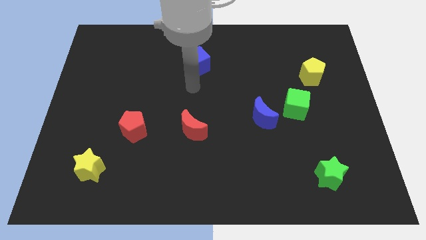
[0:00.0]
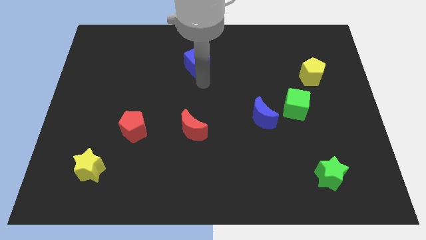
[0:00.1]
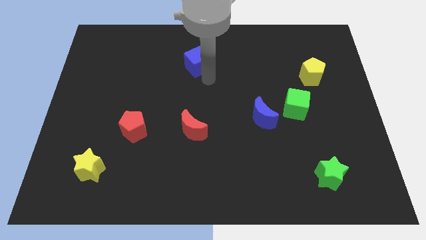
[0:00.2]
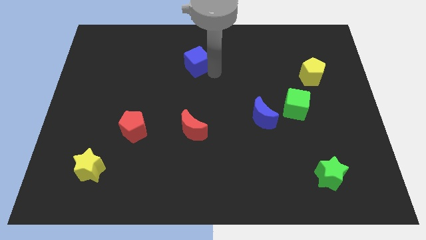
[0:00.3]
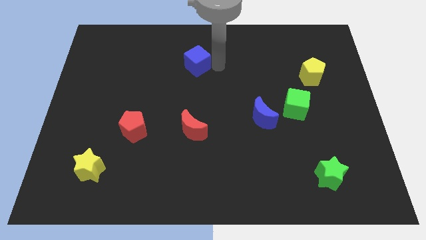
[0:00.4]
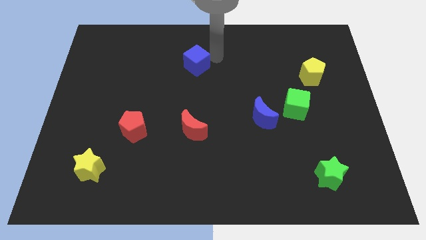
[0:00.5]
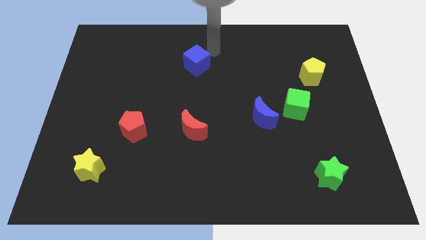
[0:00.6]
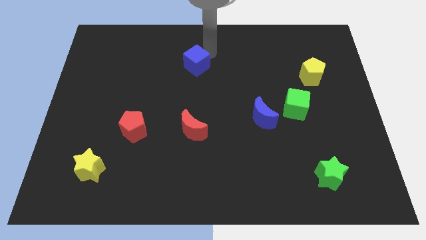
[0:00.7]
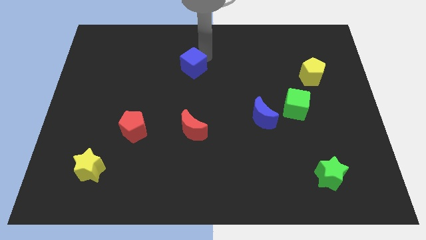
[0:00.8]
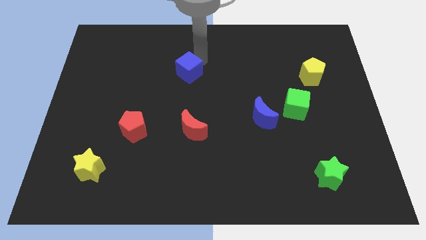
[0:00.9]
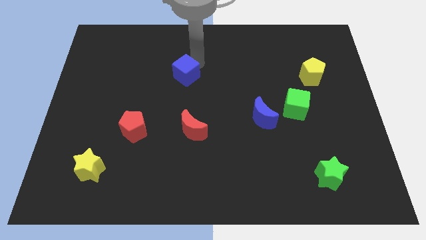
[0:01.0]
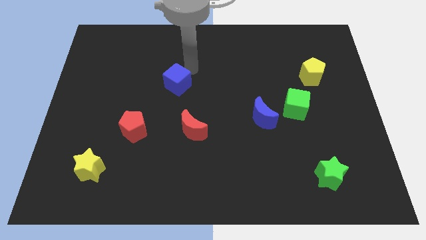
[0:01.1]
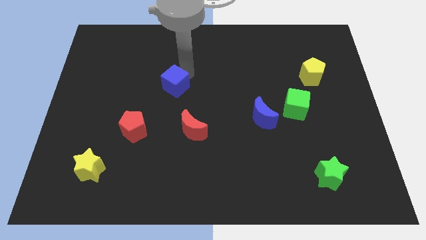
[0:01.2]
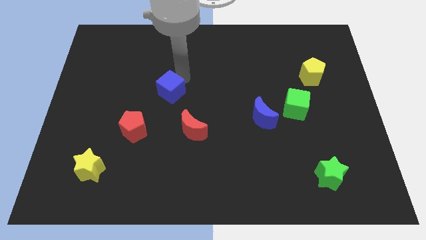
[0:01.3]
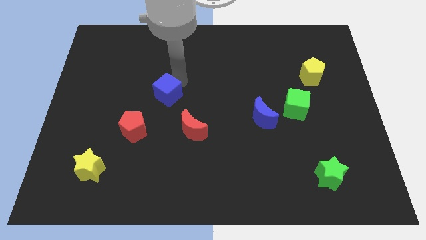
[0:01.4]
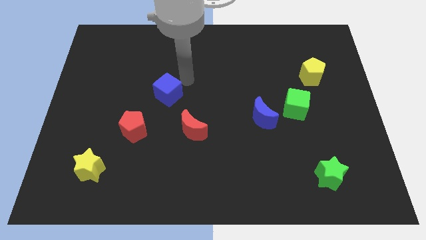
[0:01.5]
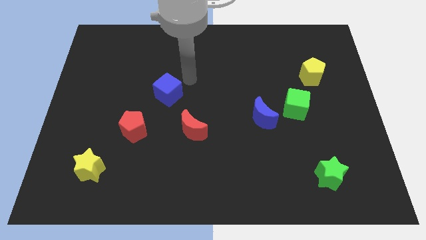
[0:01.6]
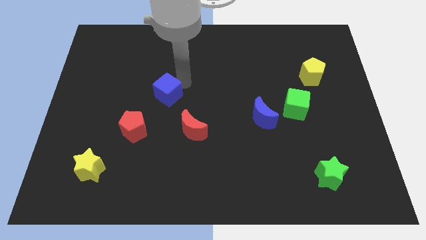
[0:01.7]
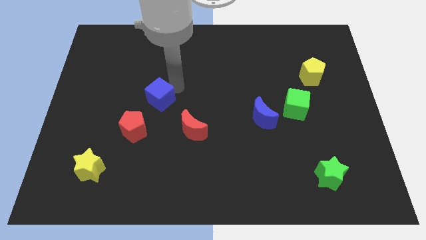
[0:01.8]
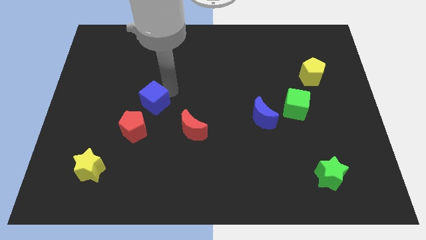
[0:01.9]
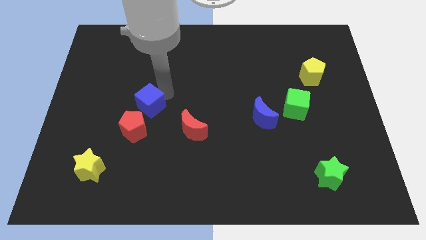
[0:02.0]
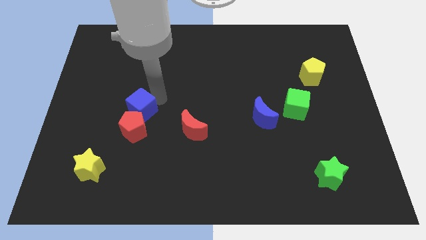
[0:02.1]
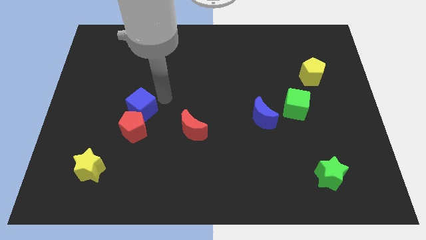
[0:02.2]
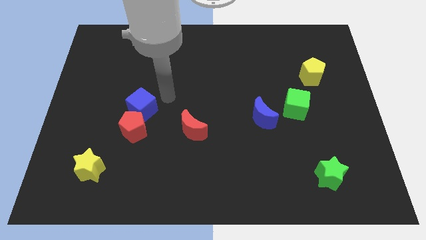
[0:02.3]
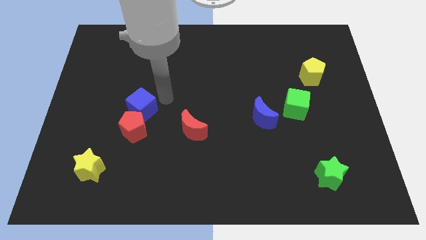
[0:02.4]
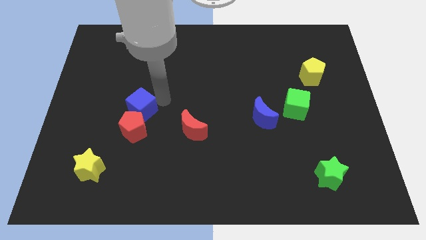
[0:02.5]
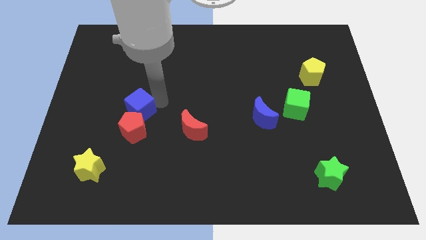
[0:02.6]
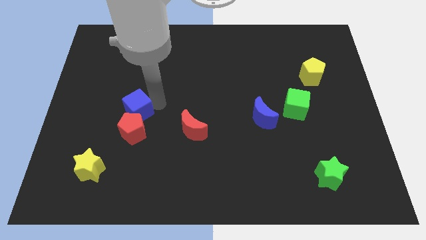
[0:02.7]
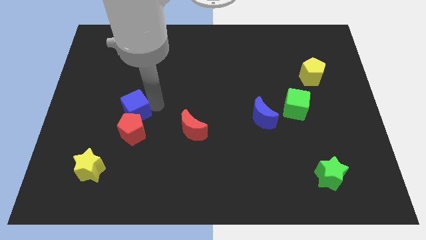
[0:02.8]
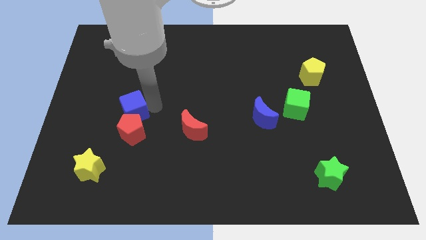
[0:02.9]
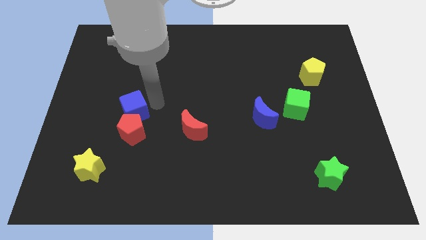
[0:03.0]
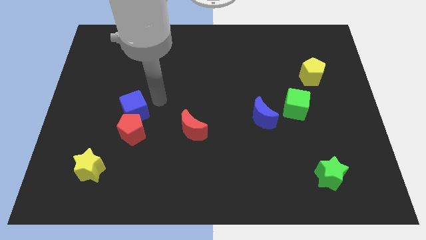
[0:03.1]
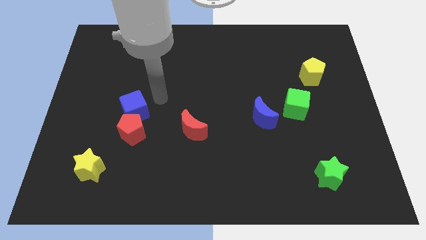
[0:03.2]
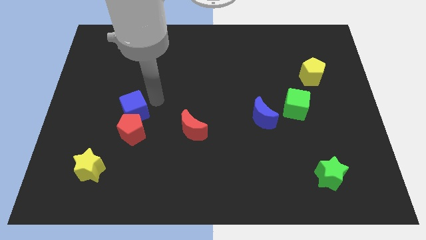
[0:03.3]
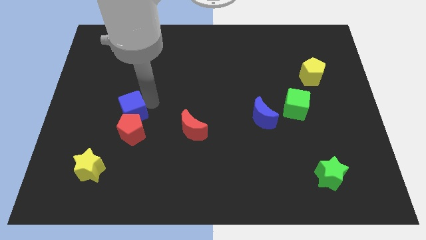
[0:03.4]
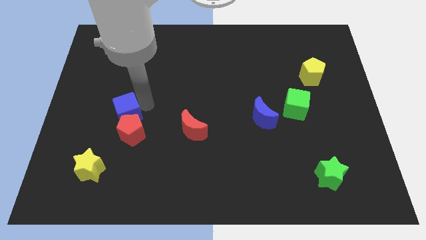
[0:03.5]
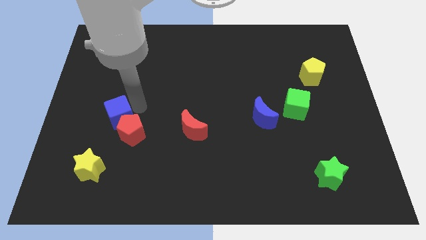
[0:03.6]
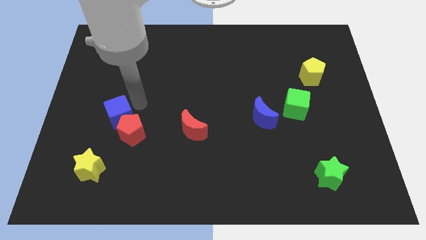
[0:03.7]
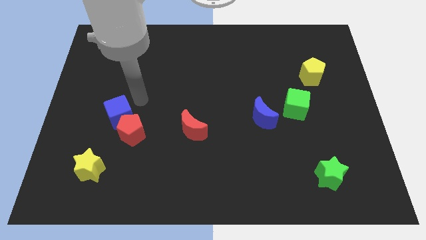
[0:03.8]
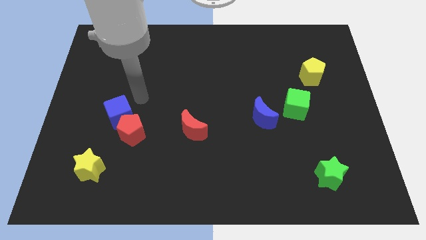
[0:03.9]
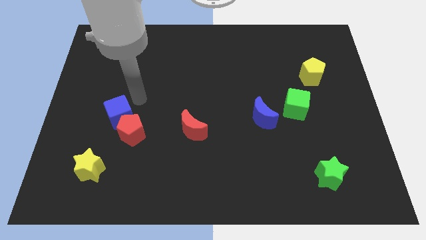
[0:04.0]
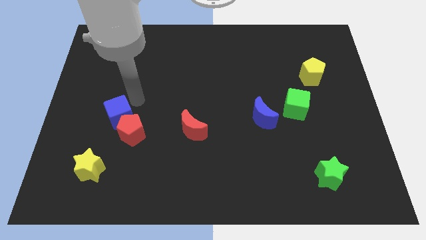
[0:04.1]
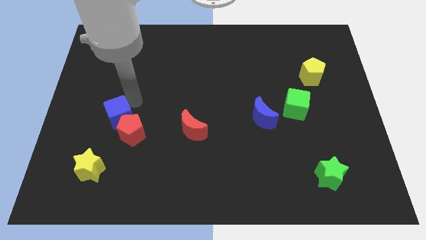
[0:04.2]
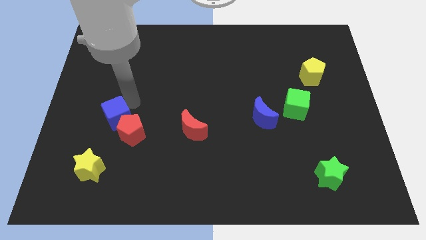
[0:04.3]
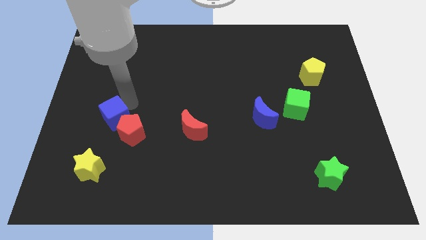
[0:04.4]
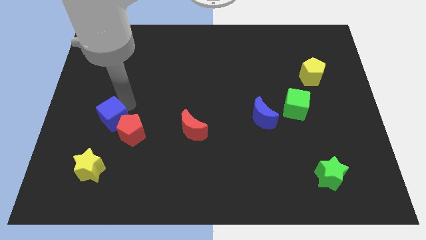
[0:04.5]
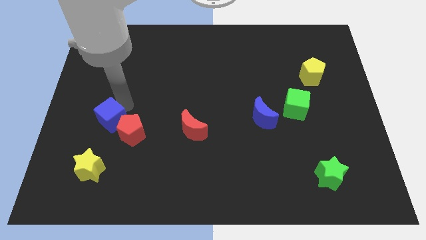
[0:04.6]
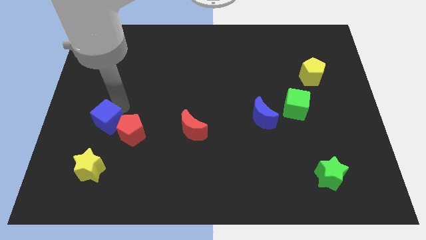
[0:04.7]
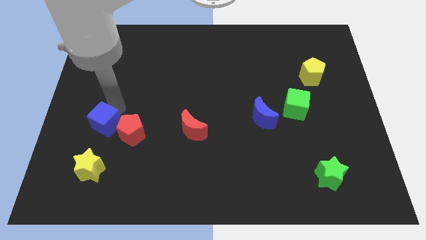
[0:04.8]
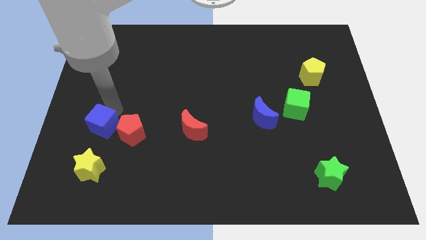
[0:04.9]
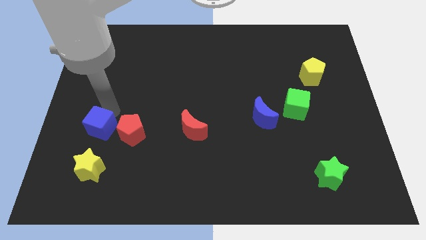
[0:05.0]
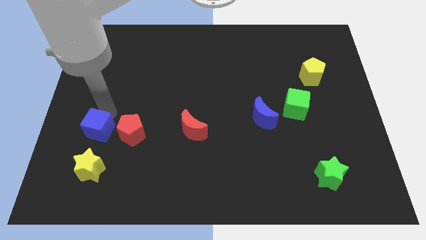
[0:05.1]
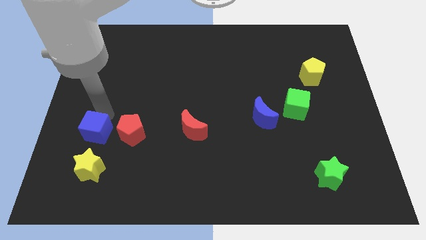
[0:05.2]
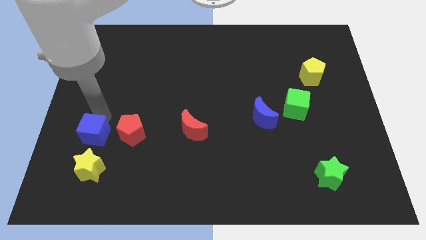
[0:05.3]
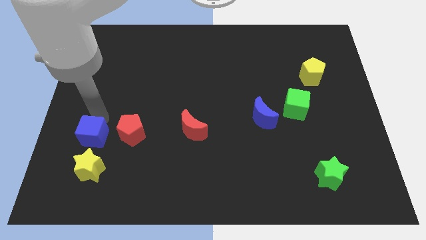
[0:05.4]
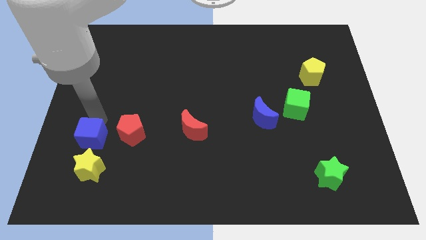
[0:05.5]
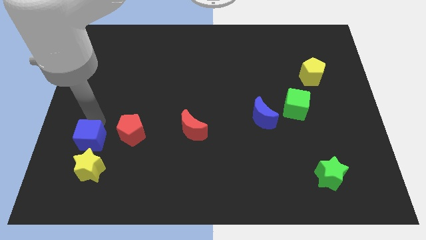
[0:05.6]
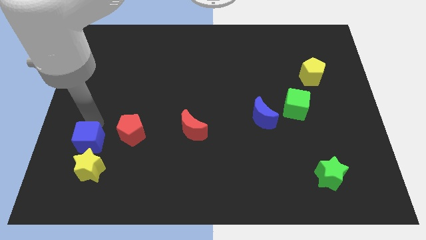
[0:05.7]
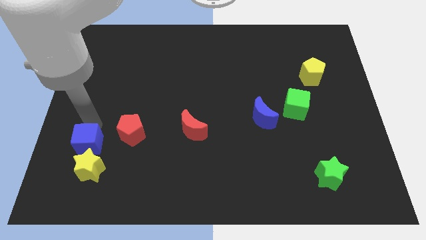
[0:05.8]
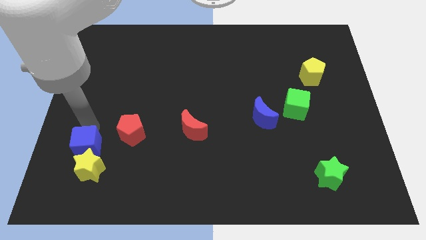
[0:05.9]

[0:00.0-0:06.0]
move the blue cube next to the yellow star
